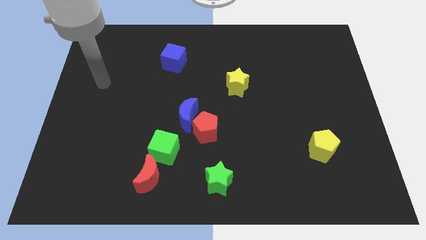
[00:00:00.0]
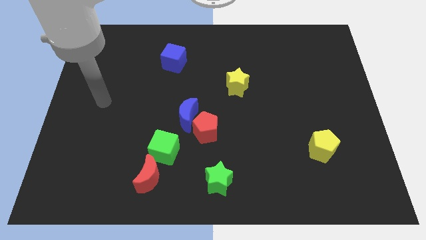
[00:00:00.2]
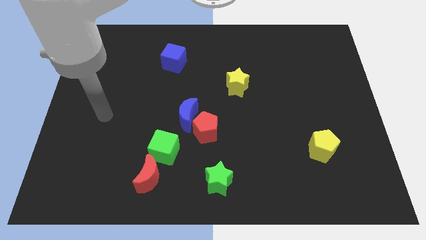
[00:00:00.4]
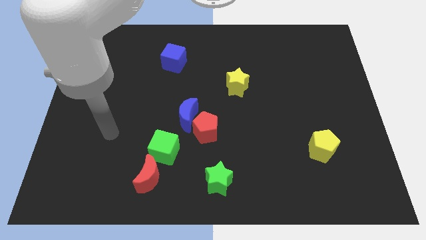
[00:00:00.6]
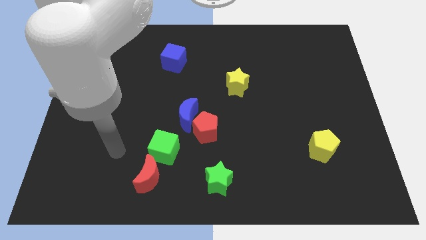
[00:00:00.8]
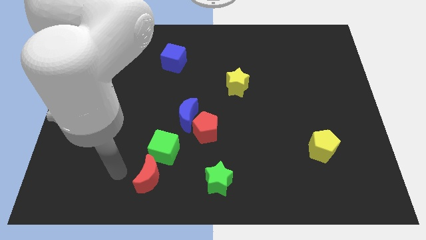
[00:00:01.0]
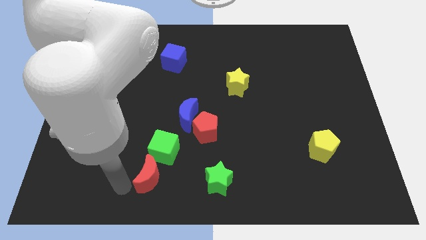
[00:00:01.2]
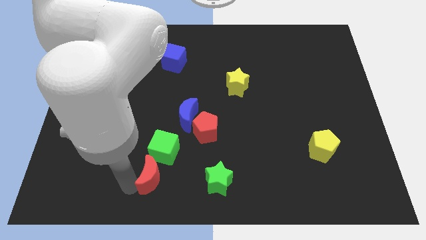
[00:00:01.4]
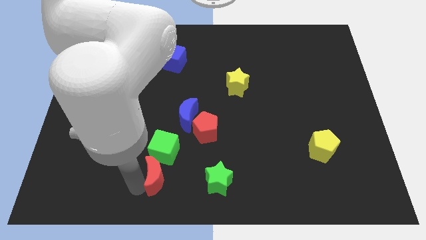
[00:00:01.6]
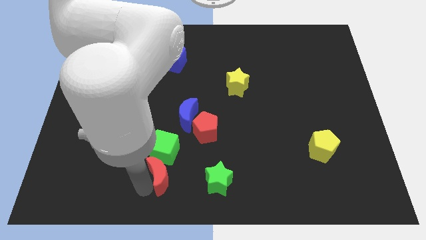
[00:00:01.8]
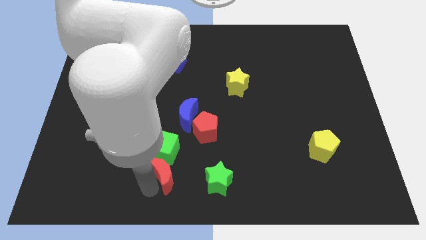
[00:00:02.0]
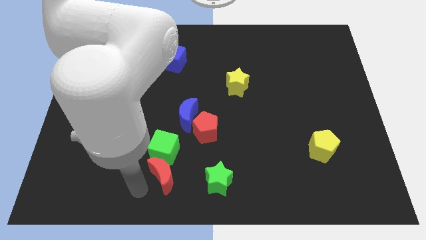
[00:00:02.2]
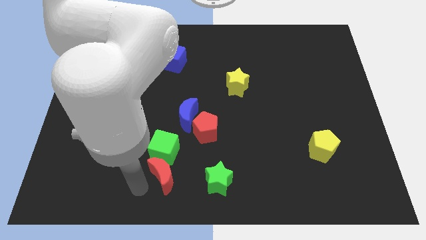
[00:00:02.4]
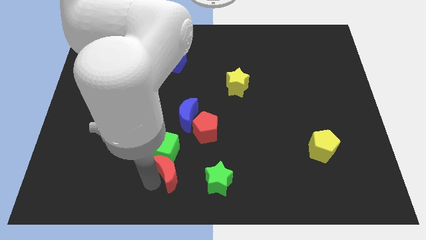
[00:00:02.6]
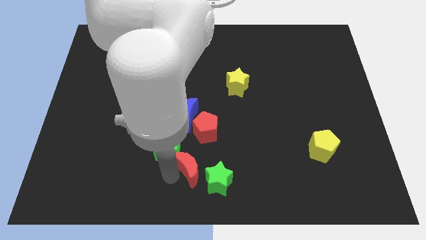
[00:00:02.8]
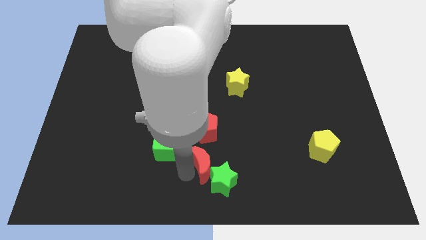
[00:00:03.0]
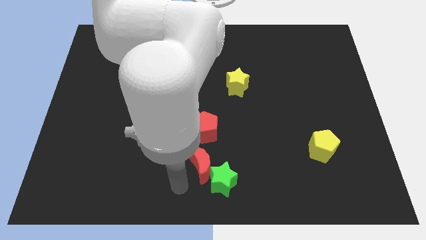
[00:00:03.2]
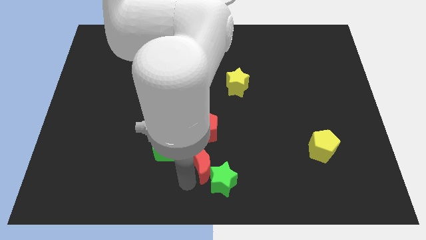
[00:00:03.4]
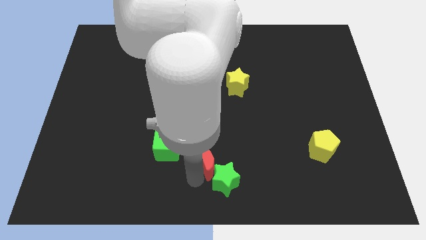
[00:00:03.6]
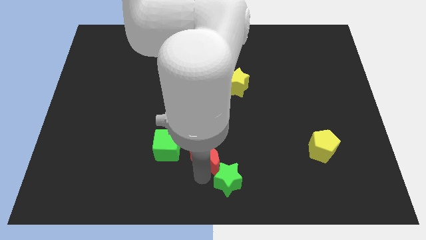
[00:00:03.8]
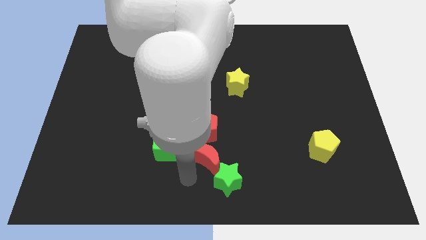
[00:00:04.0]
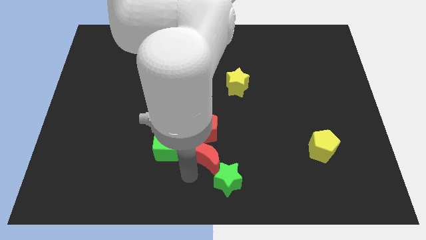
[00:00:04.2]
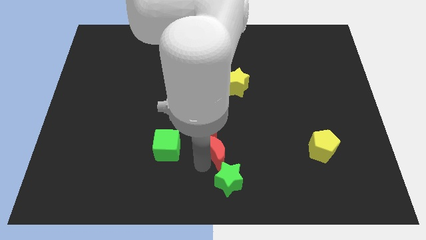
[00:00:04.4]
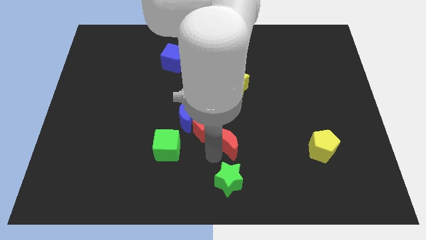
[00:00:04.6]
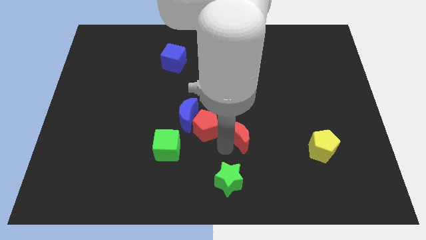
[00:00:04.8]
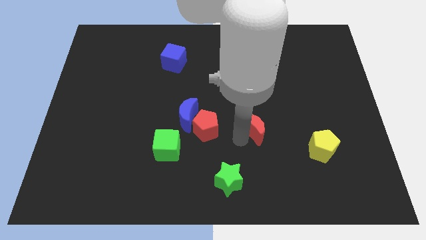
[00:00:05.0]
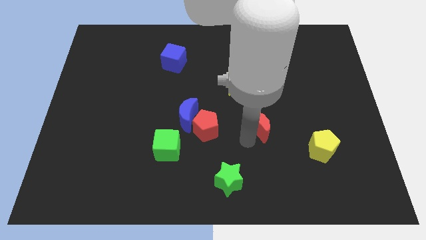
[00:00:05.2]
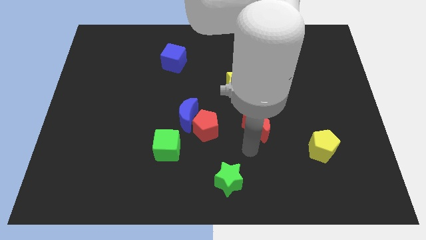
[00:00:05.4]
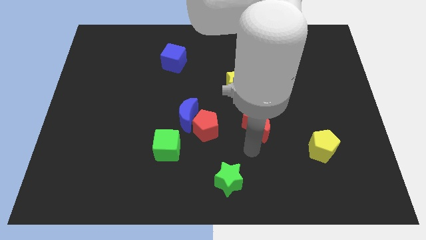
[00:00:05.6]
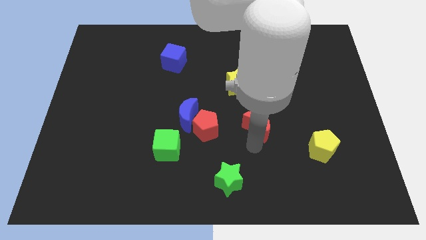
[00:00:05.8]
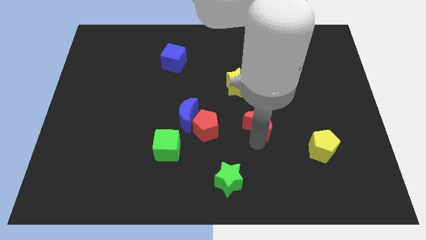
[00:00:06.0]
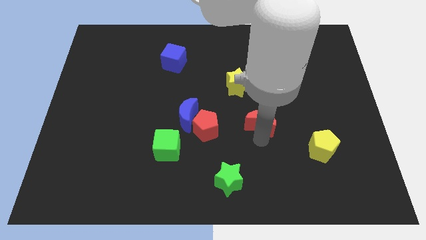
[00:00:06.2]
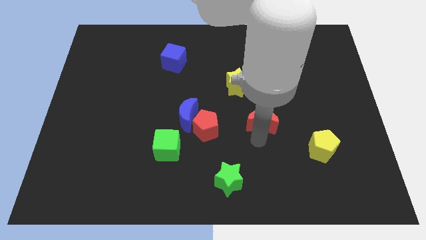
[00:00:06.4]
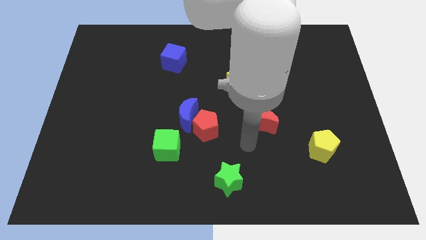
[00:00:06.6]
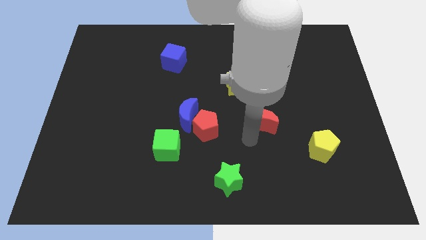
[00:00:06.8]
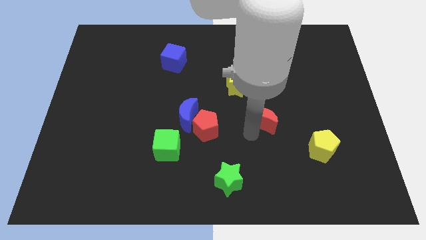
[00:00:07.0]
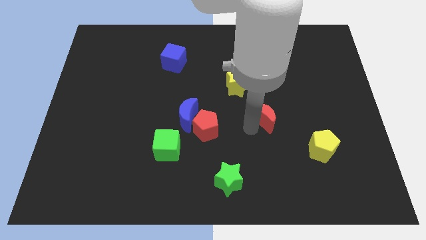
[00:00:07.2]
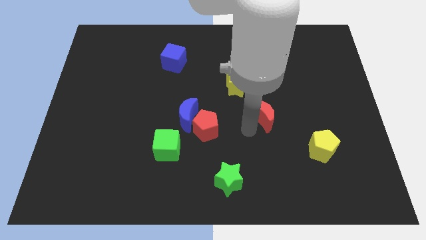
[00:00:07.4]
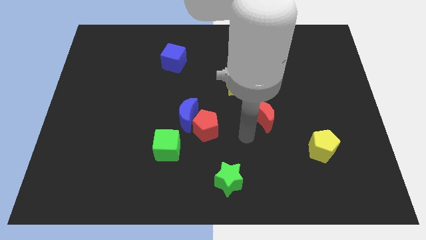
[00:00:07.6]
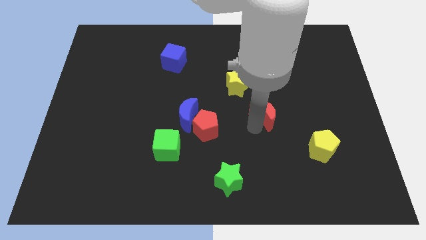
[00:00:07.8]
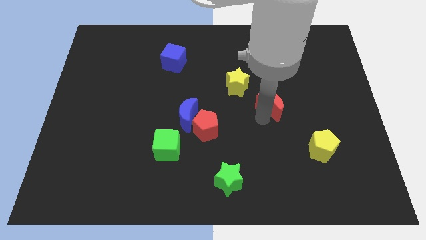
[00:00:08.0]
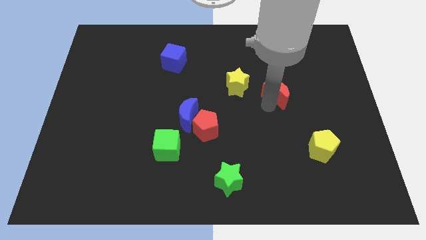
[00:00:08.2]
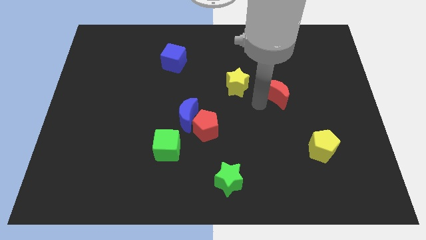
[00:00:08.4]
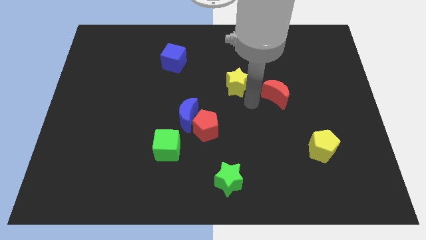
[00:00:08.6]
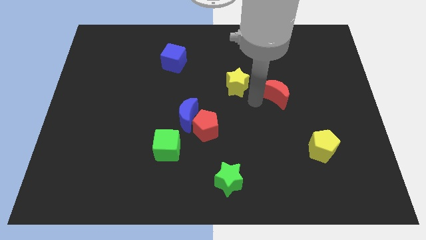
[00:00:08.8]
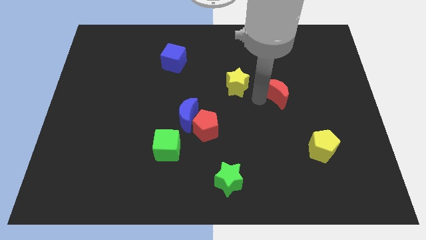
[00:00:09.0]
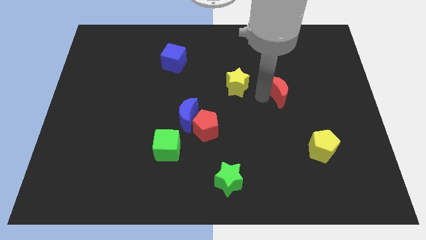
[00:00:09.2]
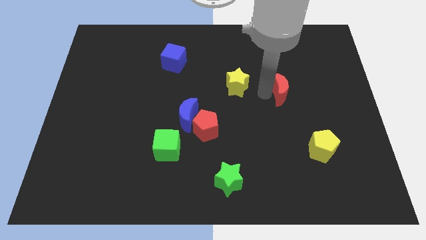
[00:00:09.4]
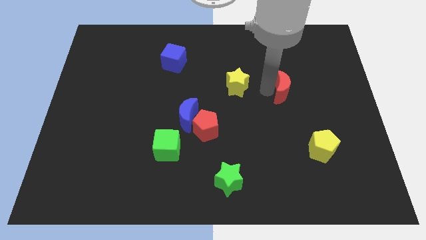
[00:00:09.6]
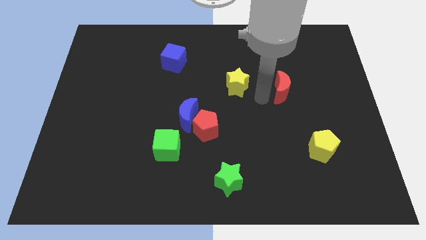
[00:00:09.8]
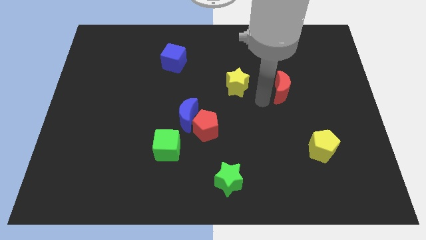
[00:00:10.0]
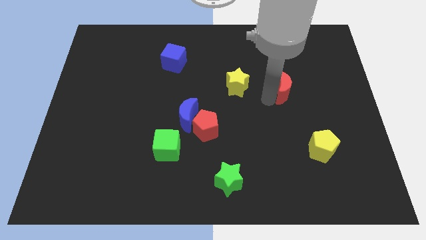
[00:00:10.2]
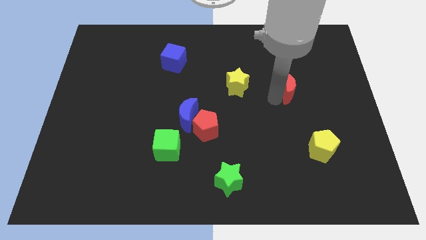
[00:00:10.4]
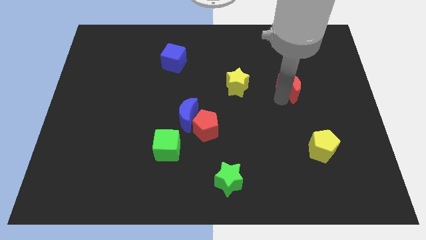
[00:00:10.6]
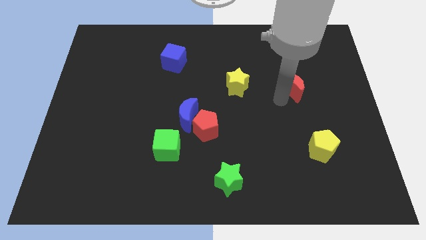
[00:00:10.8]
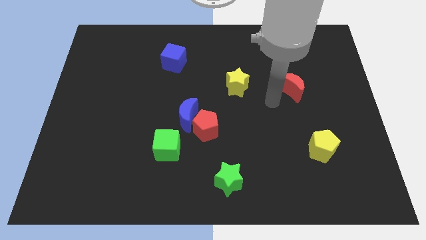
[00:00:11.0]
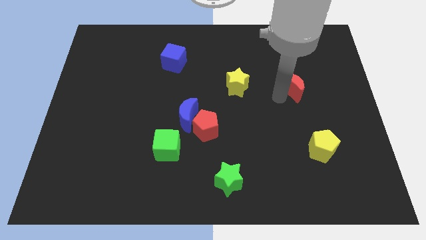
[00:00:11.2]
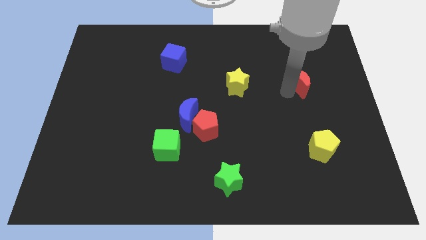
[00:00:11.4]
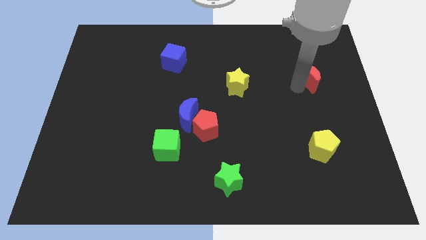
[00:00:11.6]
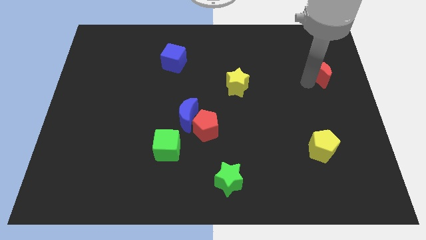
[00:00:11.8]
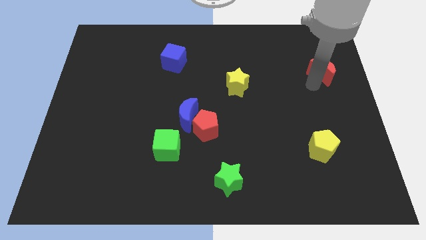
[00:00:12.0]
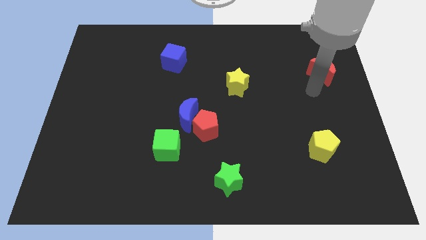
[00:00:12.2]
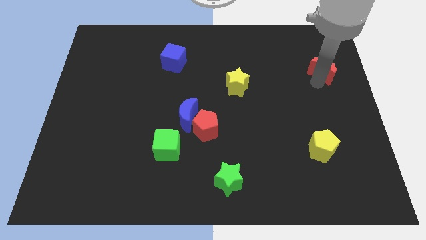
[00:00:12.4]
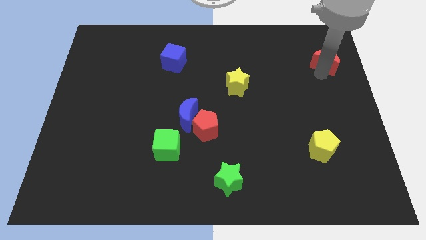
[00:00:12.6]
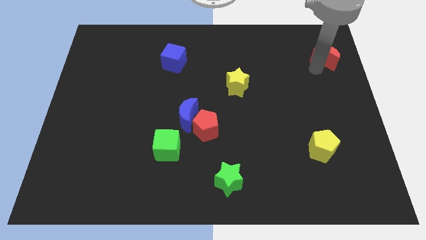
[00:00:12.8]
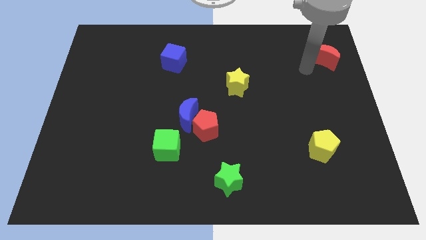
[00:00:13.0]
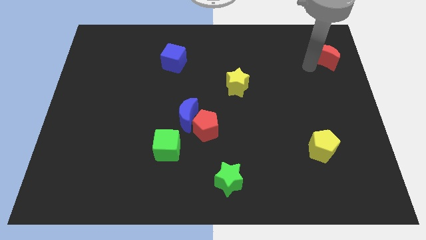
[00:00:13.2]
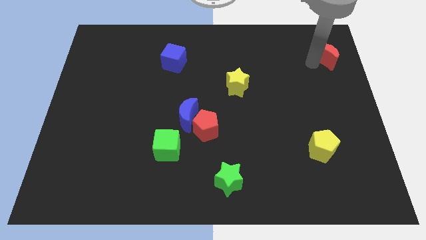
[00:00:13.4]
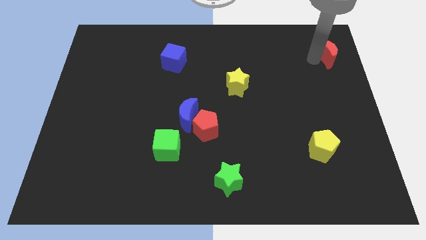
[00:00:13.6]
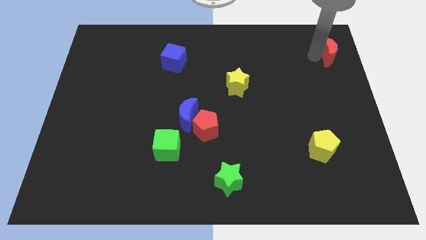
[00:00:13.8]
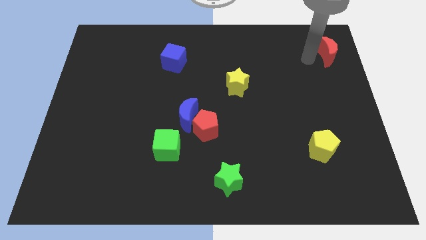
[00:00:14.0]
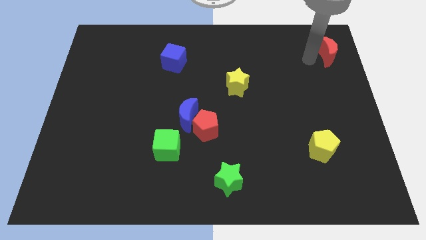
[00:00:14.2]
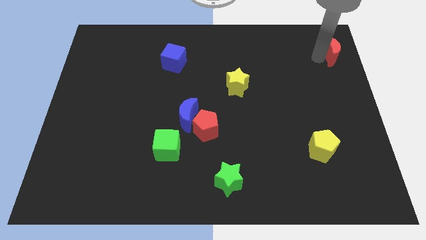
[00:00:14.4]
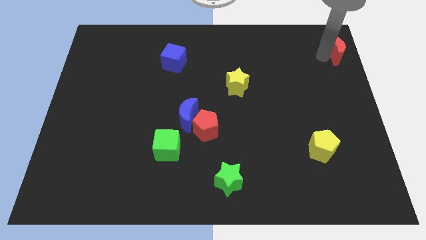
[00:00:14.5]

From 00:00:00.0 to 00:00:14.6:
move the red moon to the top right
